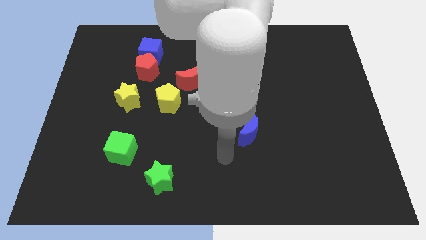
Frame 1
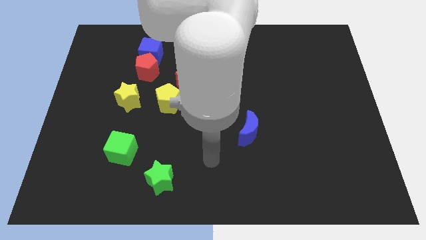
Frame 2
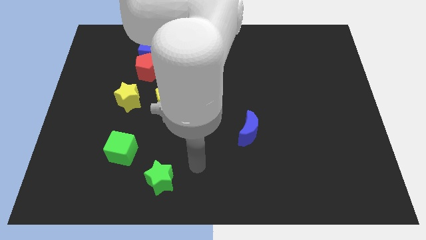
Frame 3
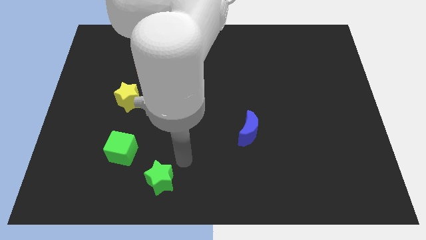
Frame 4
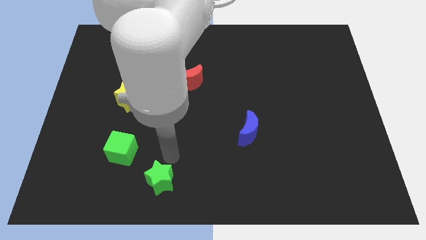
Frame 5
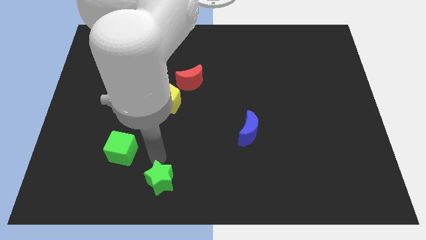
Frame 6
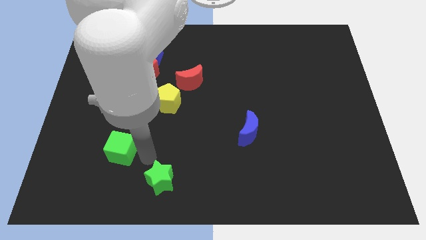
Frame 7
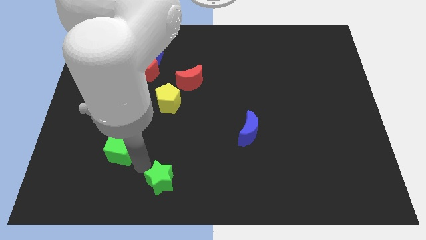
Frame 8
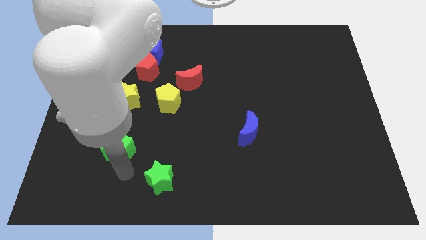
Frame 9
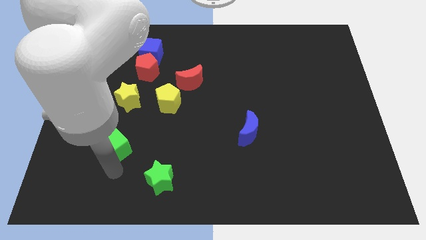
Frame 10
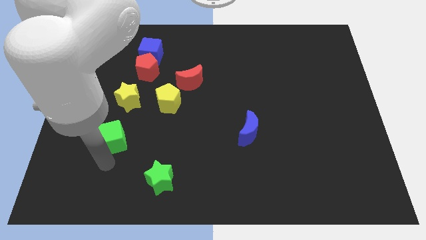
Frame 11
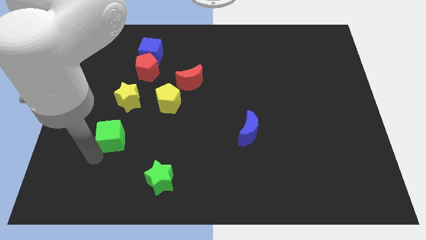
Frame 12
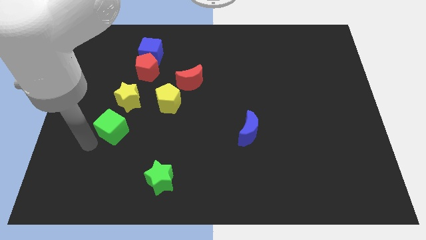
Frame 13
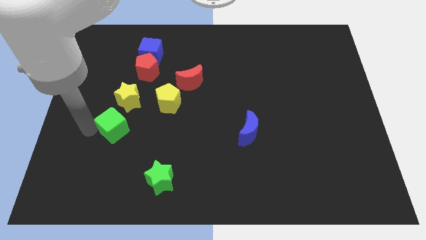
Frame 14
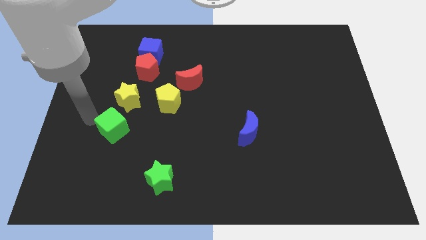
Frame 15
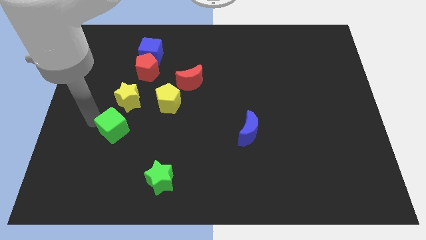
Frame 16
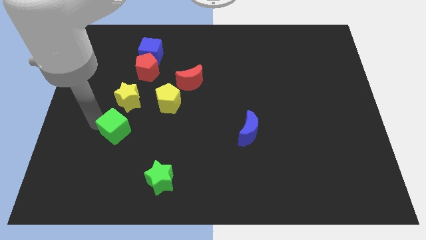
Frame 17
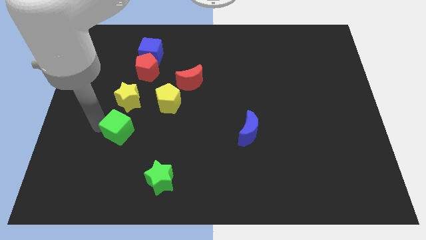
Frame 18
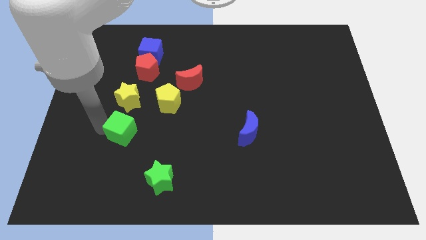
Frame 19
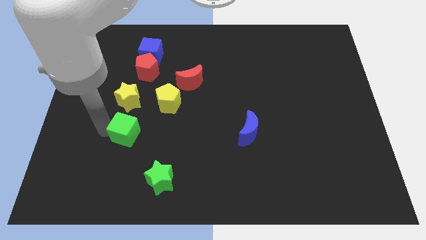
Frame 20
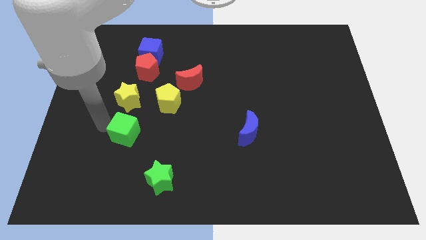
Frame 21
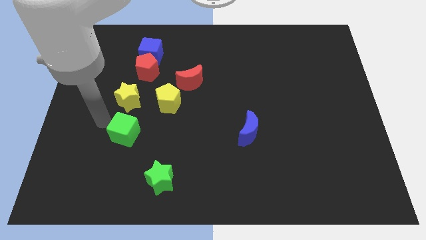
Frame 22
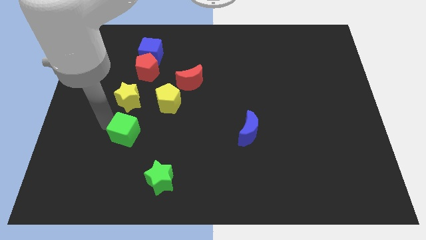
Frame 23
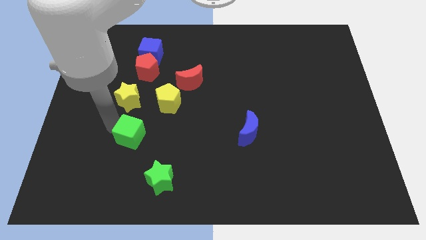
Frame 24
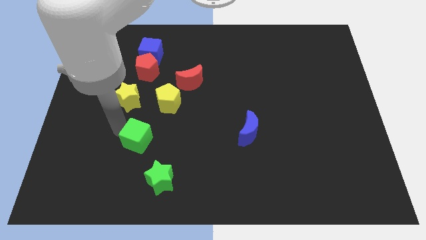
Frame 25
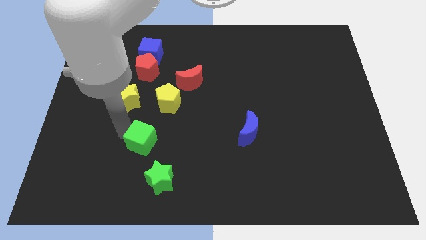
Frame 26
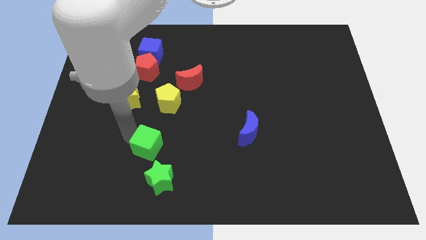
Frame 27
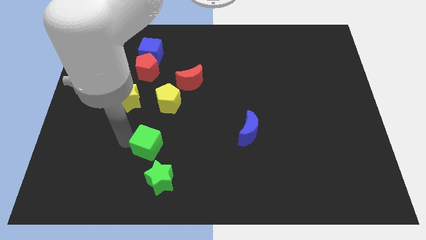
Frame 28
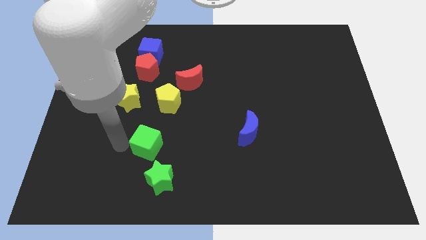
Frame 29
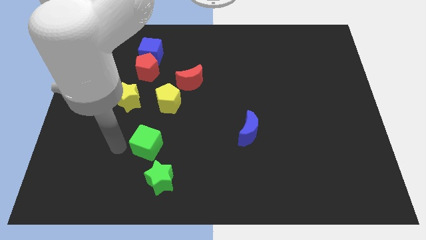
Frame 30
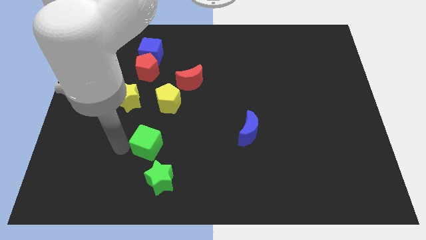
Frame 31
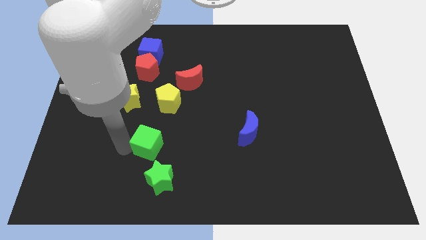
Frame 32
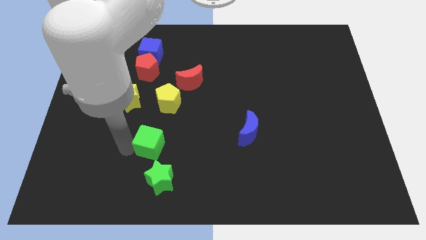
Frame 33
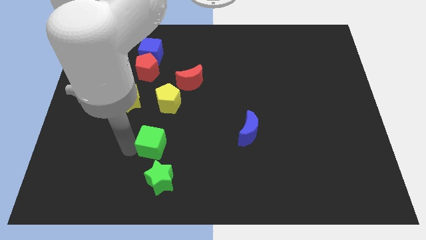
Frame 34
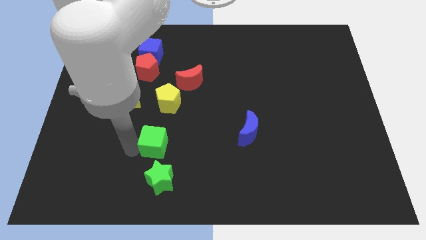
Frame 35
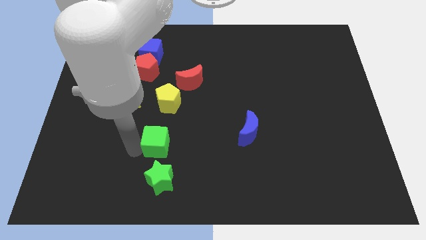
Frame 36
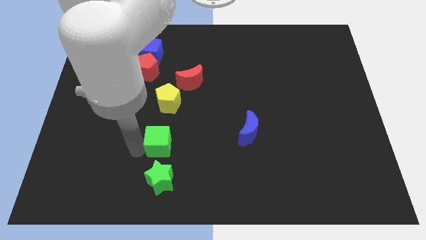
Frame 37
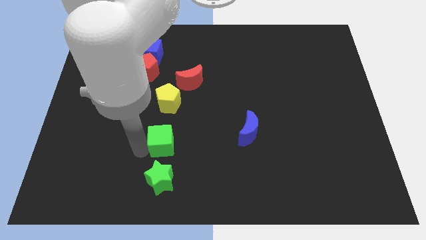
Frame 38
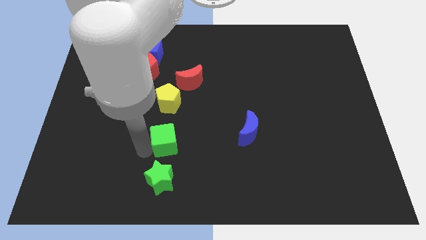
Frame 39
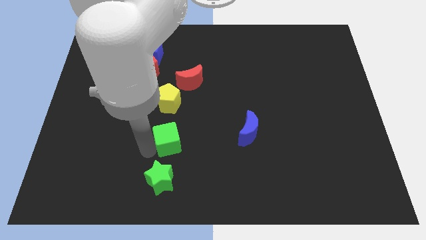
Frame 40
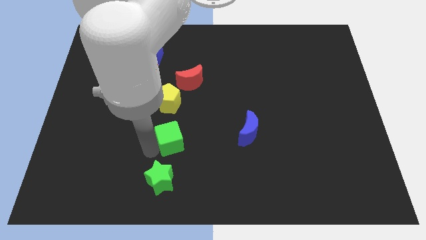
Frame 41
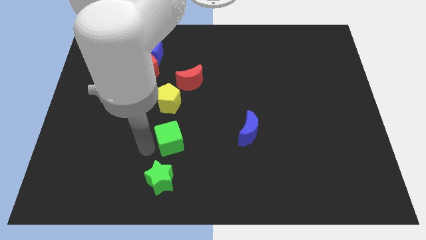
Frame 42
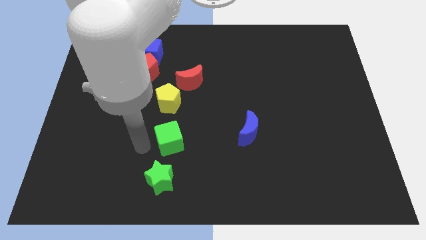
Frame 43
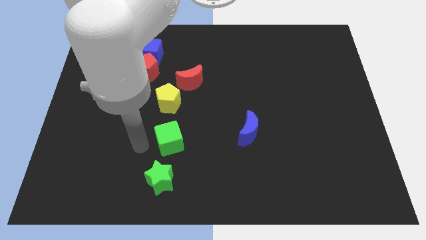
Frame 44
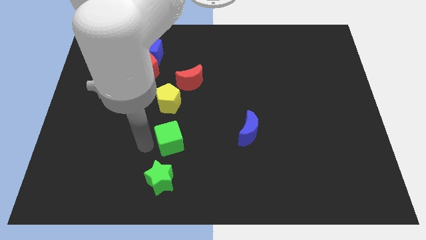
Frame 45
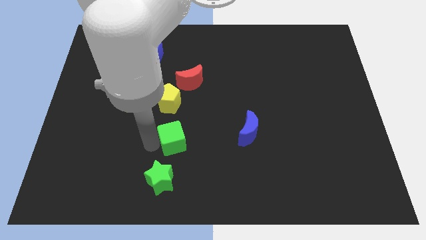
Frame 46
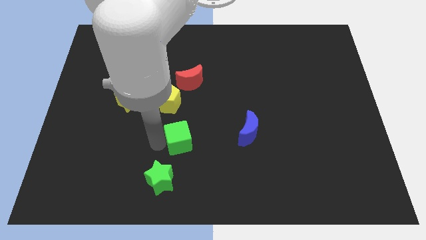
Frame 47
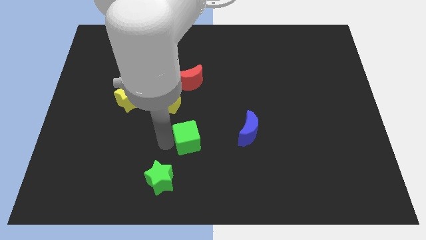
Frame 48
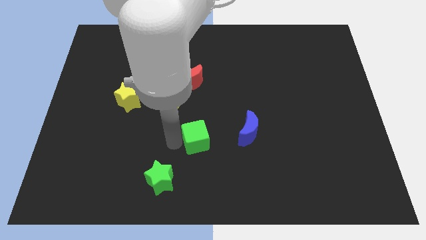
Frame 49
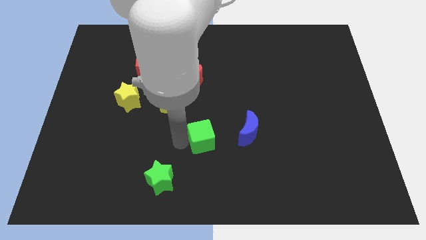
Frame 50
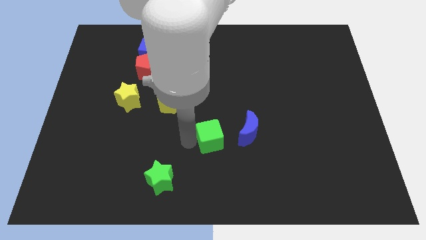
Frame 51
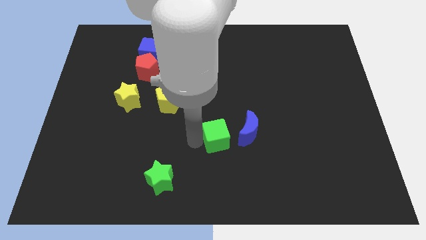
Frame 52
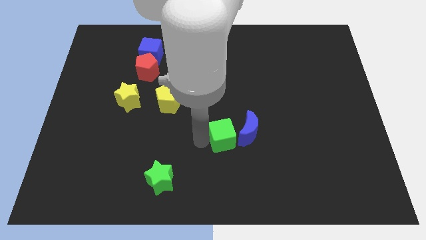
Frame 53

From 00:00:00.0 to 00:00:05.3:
put the green cube to the blue moon

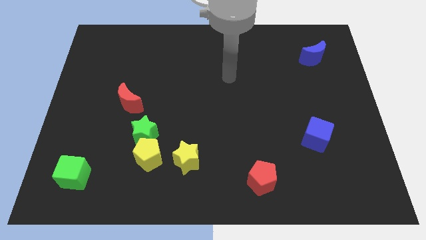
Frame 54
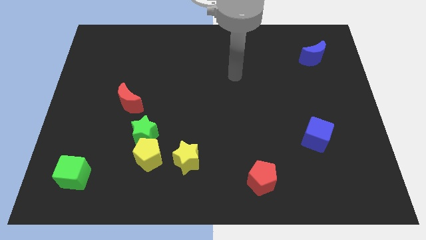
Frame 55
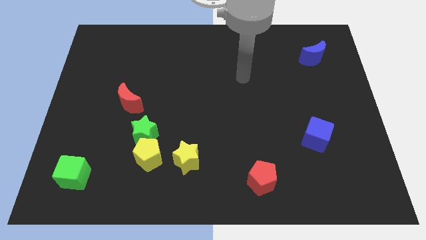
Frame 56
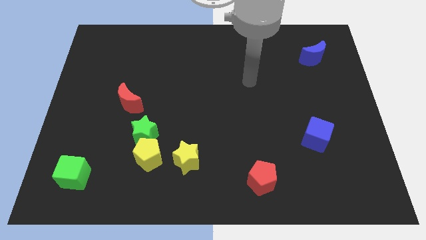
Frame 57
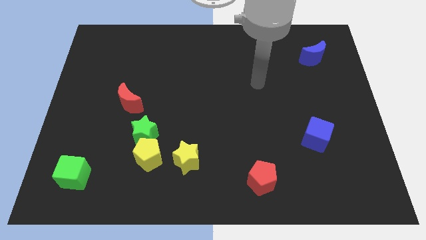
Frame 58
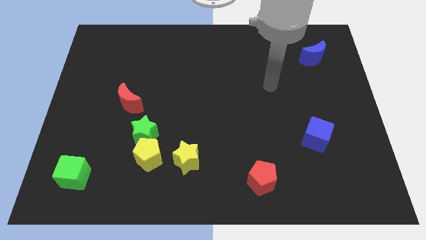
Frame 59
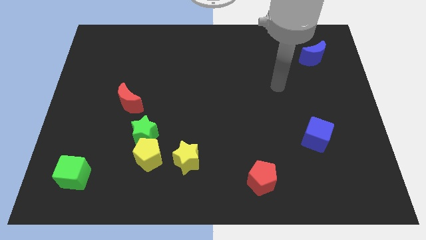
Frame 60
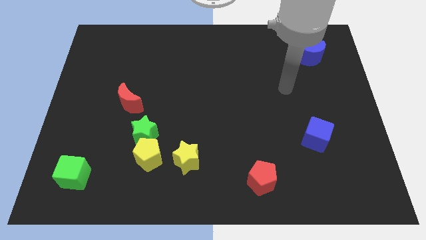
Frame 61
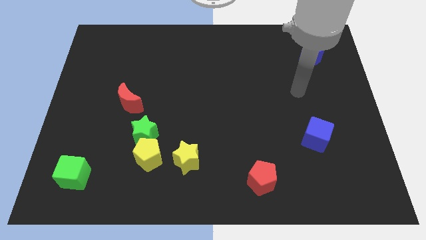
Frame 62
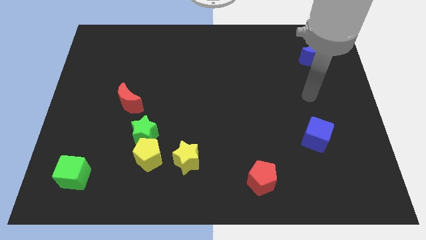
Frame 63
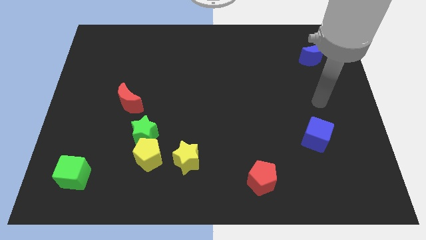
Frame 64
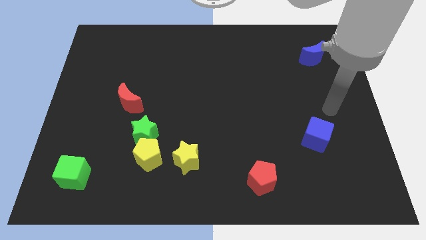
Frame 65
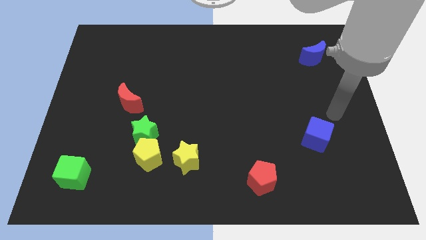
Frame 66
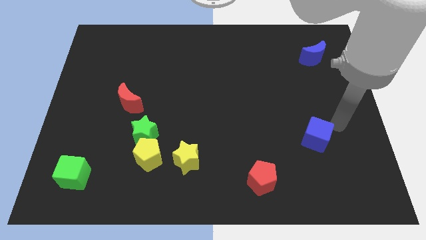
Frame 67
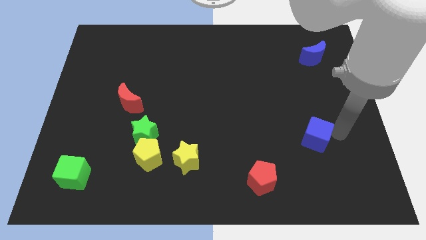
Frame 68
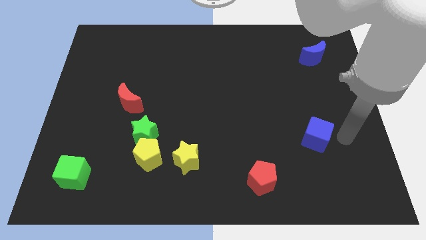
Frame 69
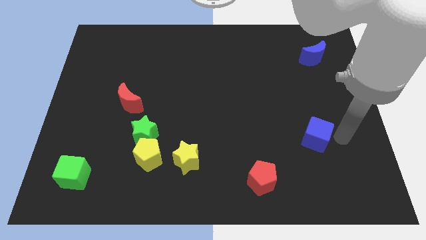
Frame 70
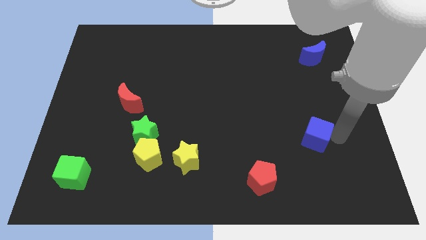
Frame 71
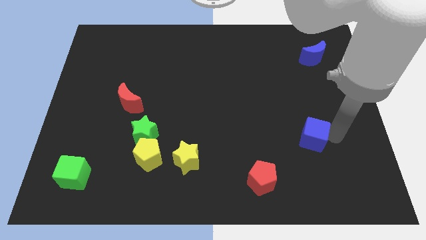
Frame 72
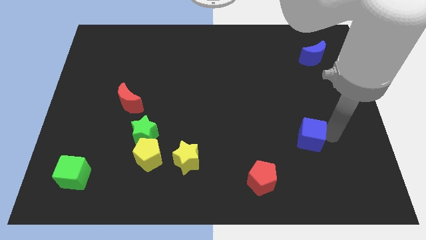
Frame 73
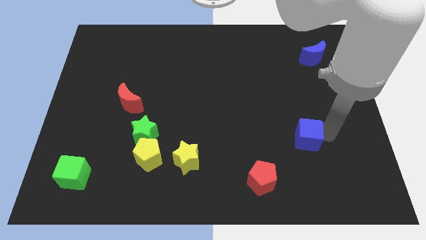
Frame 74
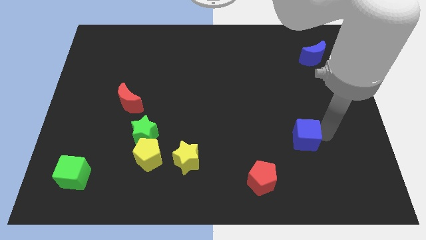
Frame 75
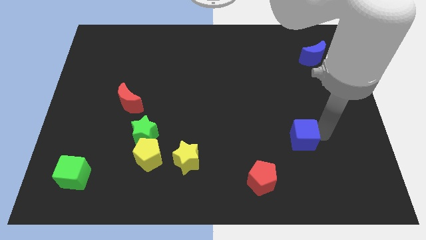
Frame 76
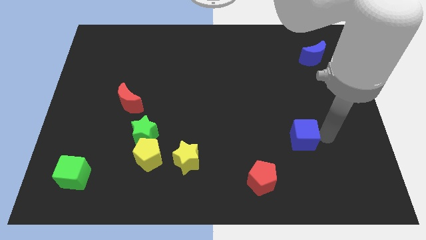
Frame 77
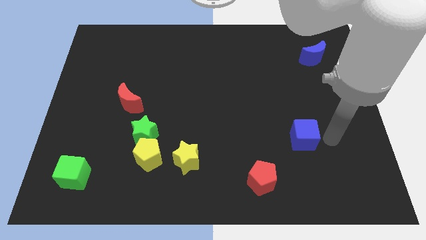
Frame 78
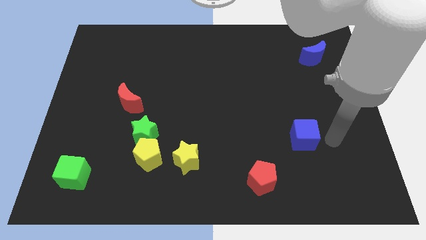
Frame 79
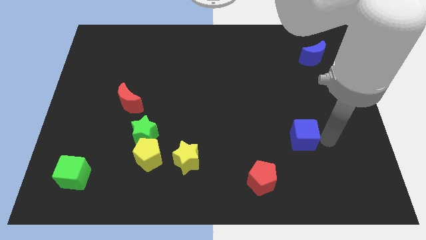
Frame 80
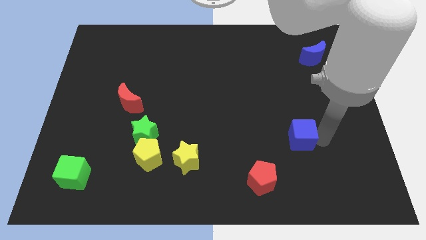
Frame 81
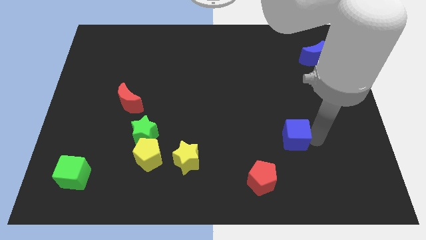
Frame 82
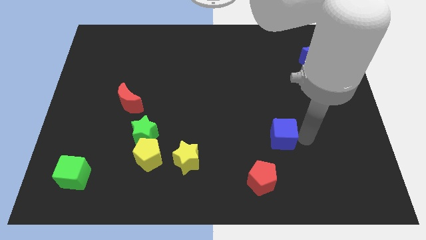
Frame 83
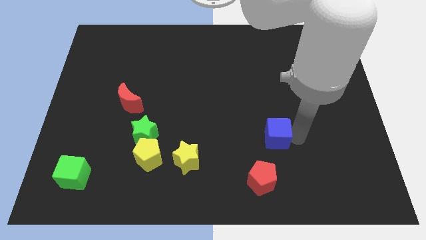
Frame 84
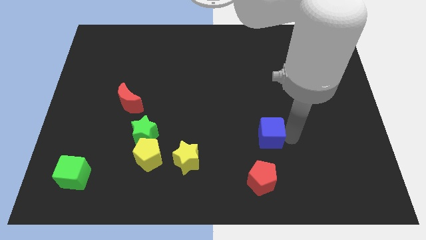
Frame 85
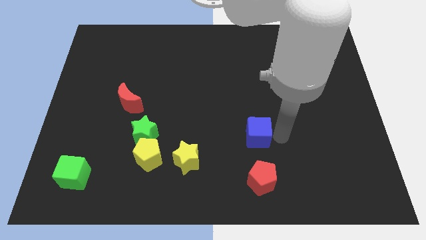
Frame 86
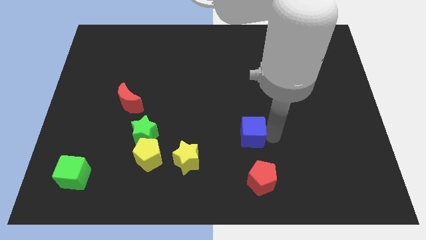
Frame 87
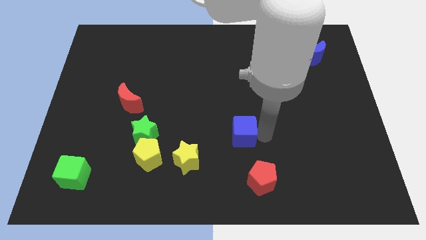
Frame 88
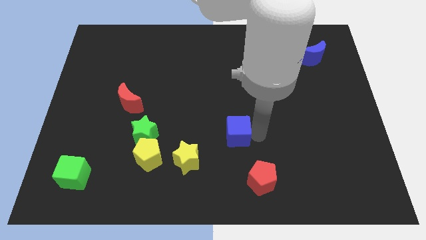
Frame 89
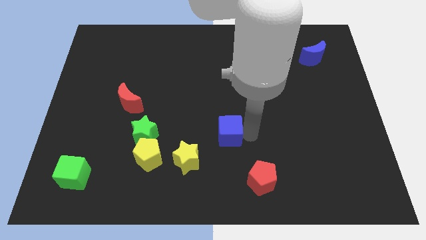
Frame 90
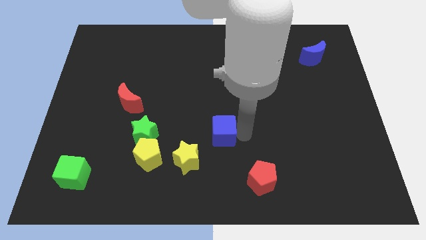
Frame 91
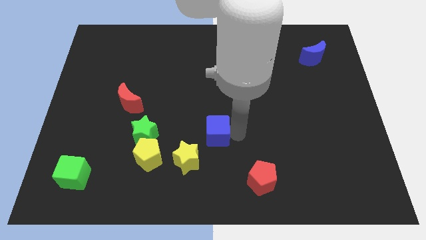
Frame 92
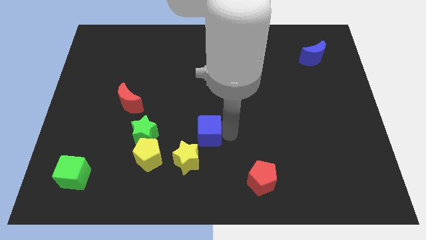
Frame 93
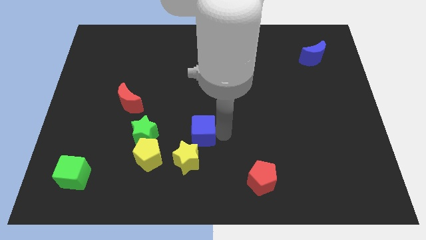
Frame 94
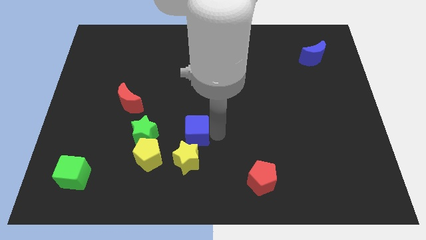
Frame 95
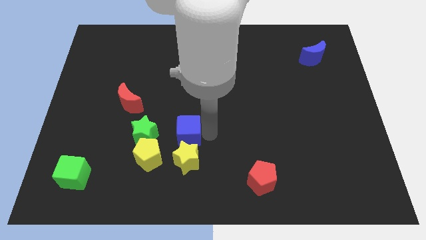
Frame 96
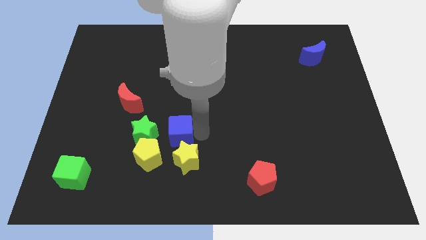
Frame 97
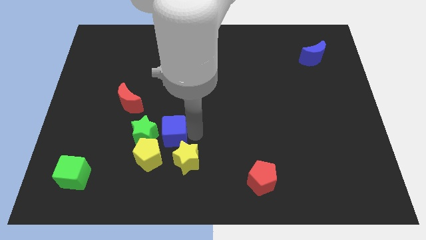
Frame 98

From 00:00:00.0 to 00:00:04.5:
slide the blue cube to the green star
